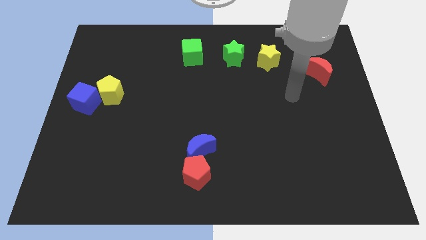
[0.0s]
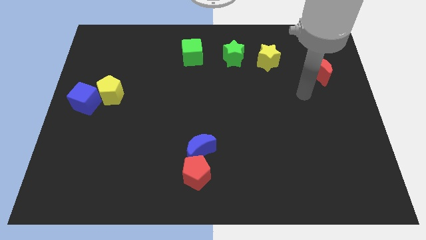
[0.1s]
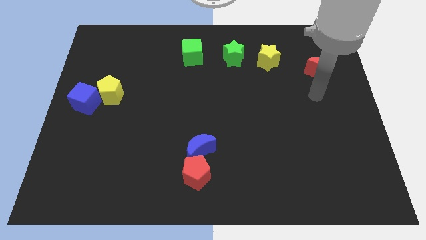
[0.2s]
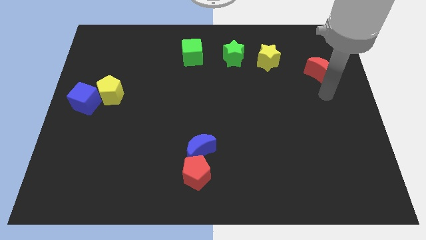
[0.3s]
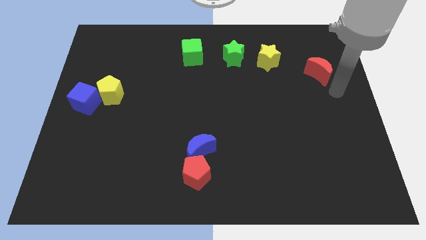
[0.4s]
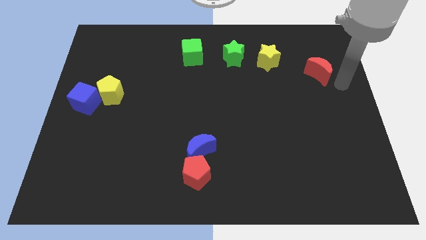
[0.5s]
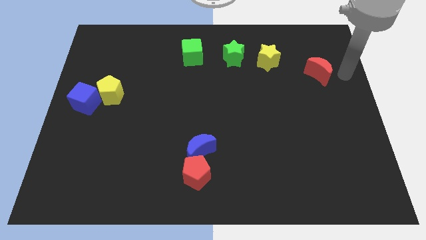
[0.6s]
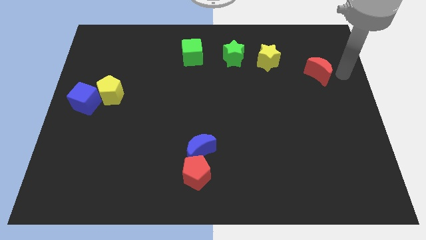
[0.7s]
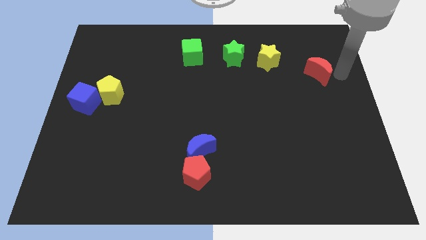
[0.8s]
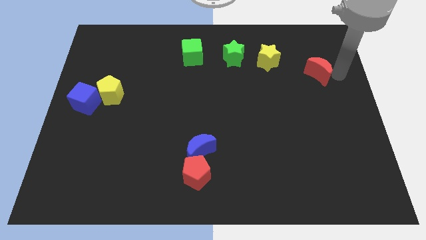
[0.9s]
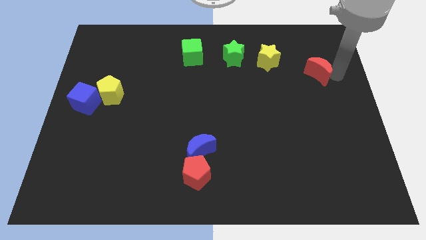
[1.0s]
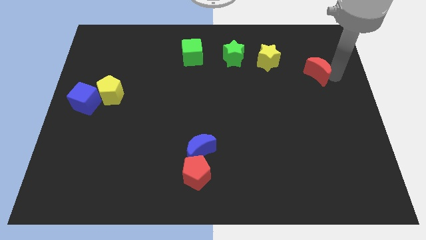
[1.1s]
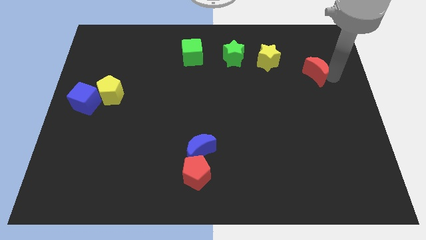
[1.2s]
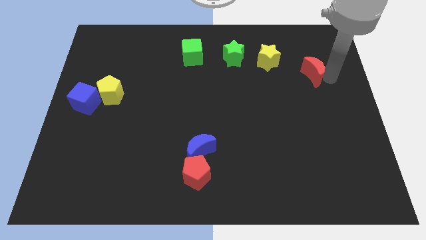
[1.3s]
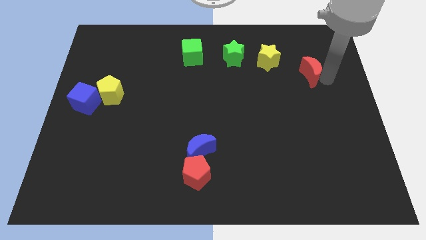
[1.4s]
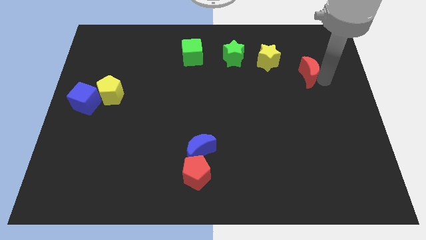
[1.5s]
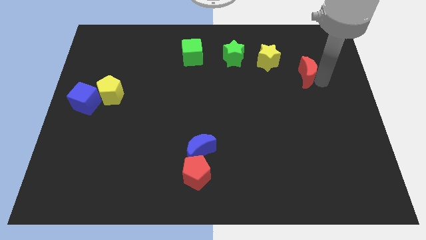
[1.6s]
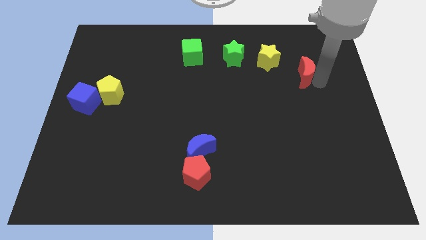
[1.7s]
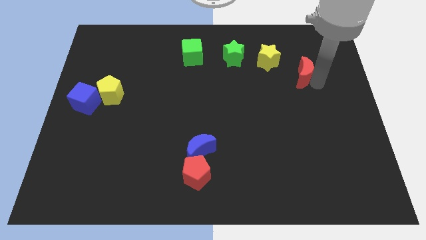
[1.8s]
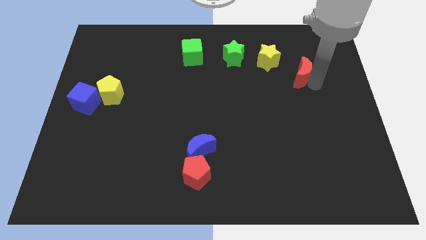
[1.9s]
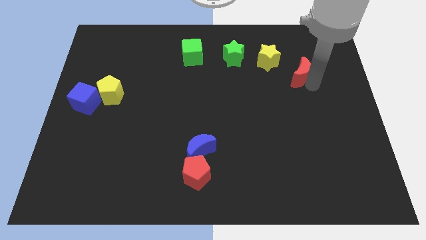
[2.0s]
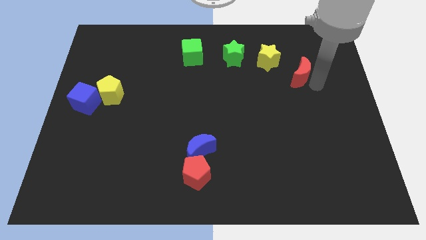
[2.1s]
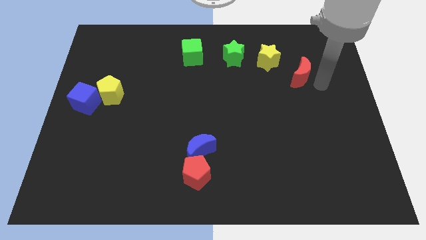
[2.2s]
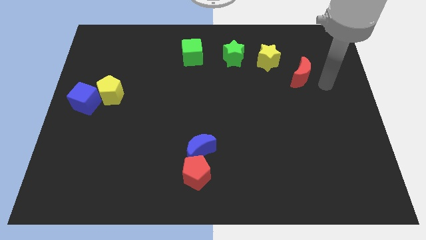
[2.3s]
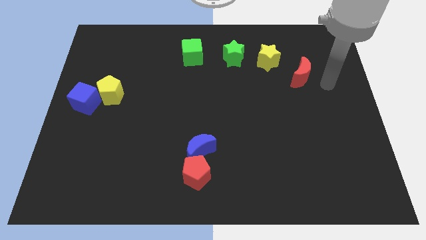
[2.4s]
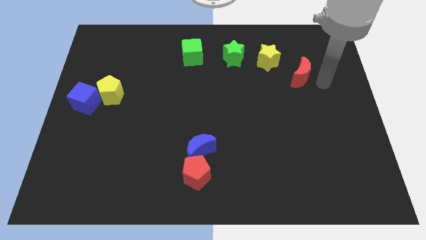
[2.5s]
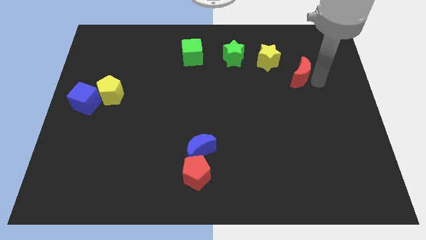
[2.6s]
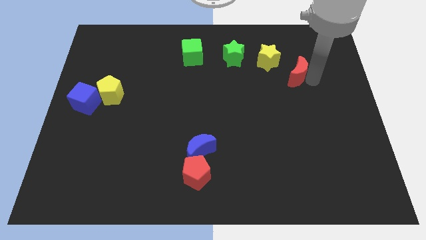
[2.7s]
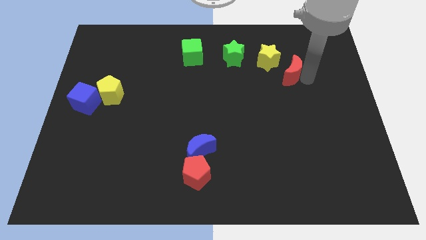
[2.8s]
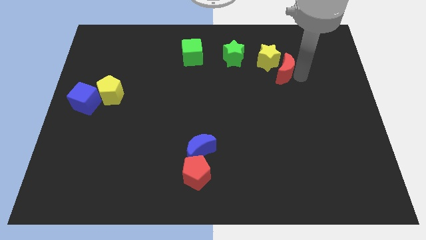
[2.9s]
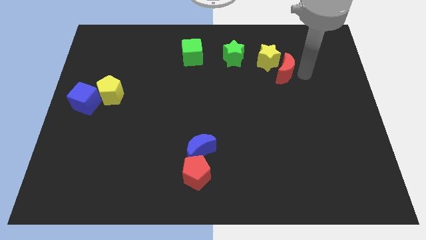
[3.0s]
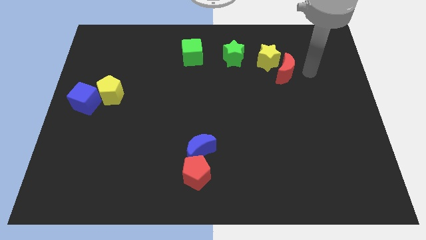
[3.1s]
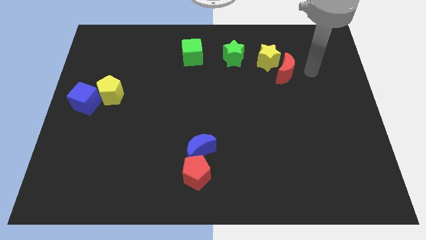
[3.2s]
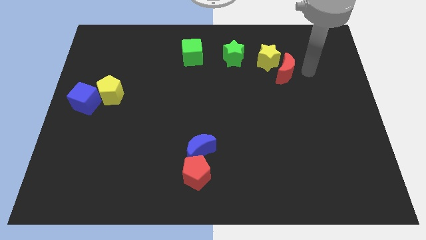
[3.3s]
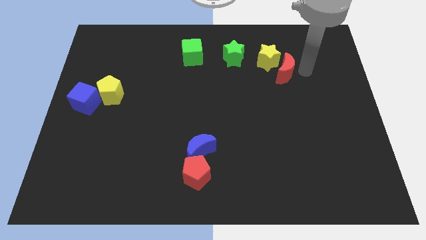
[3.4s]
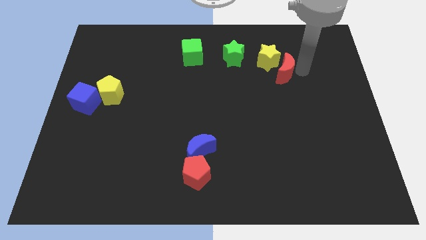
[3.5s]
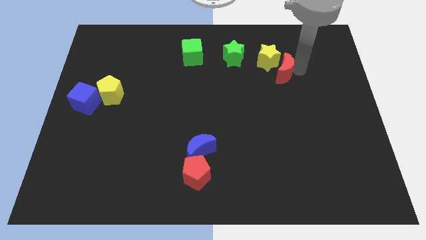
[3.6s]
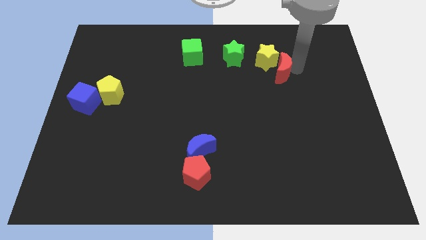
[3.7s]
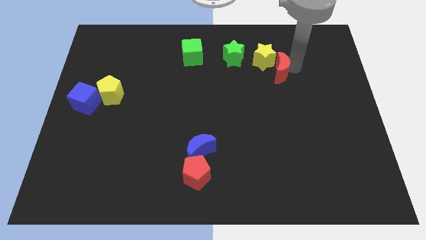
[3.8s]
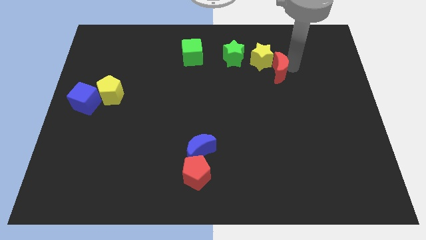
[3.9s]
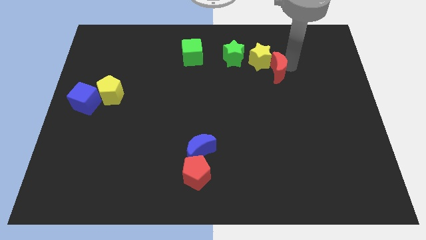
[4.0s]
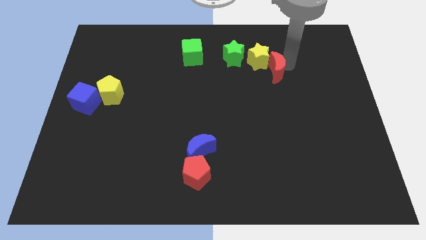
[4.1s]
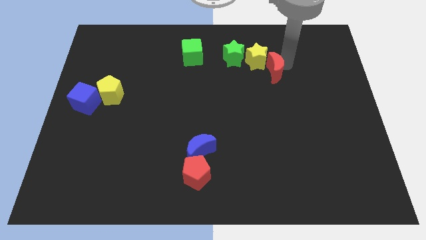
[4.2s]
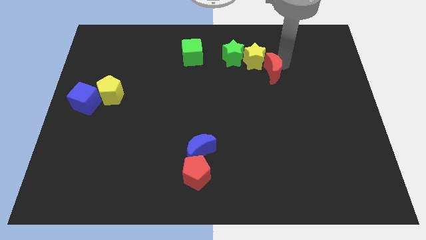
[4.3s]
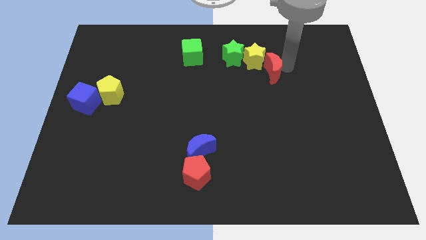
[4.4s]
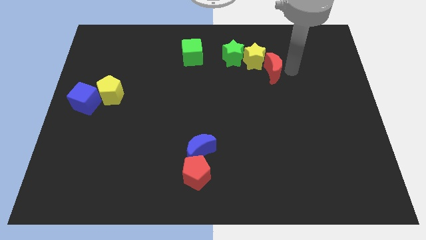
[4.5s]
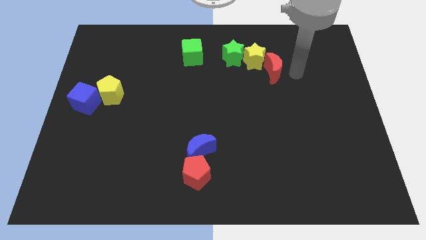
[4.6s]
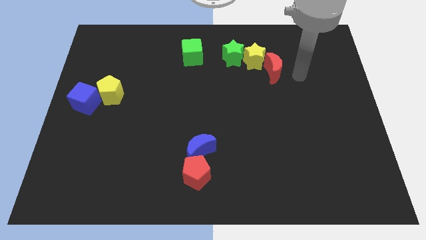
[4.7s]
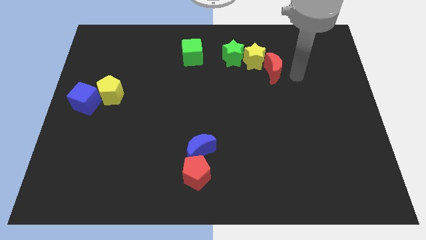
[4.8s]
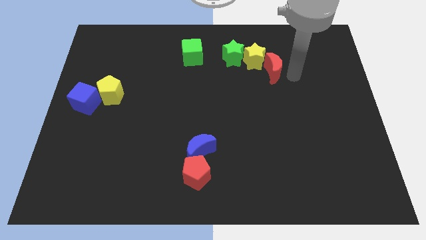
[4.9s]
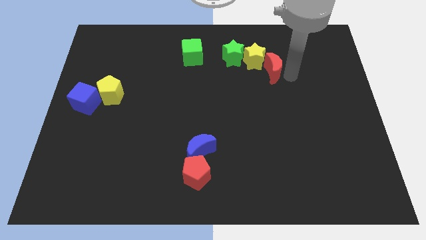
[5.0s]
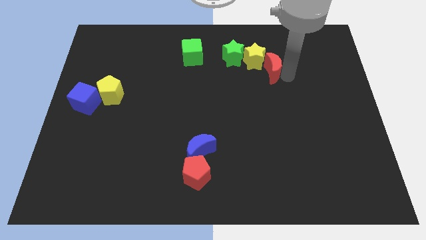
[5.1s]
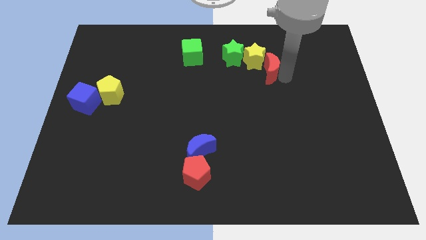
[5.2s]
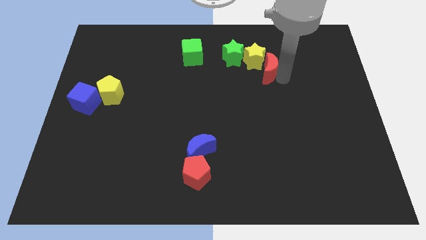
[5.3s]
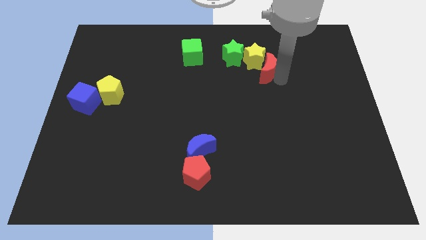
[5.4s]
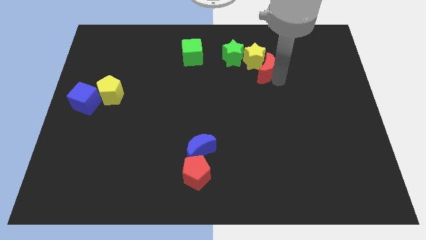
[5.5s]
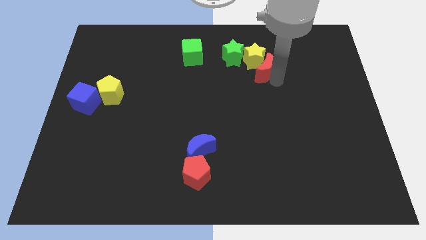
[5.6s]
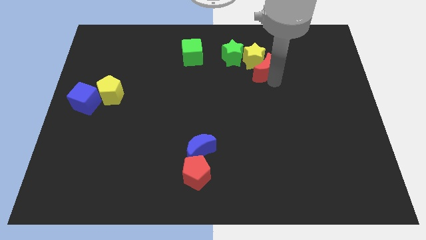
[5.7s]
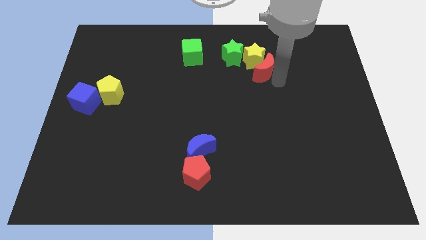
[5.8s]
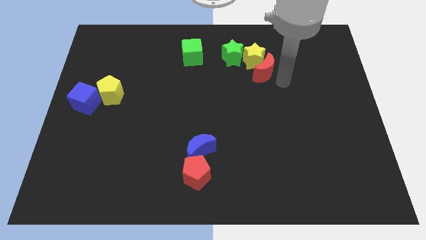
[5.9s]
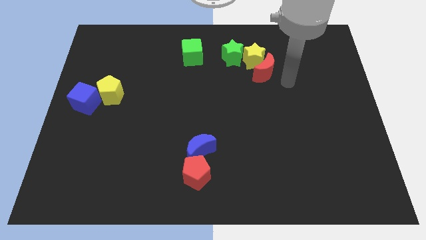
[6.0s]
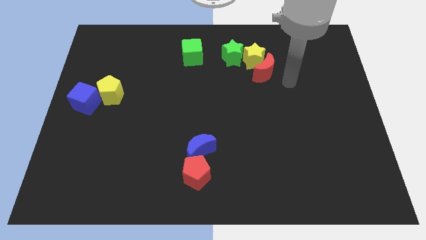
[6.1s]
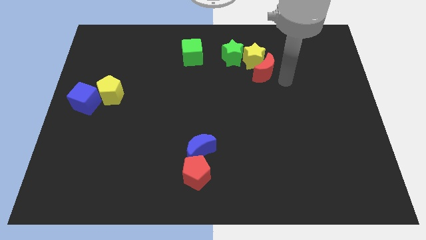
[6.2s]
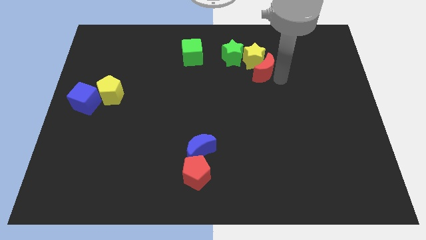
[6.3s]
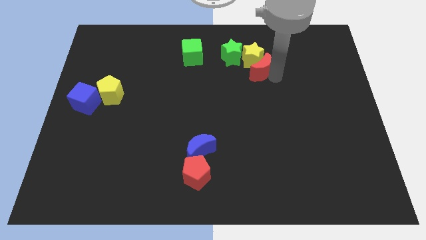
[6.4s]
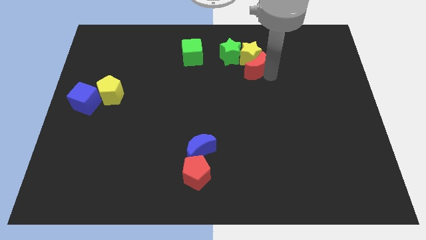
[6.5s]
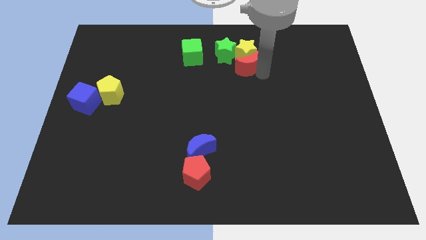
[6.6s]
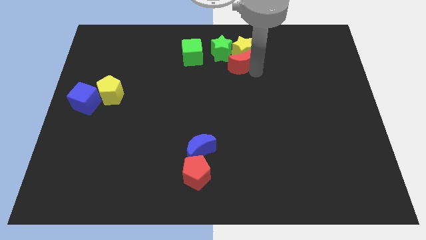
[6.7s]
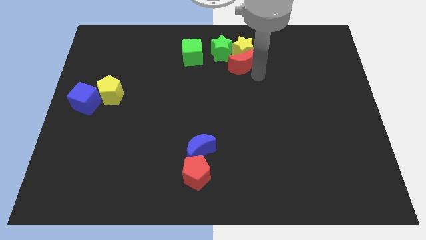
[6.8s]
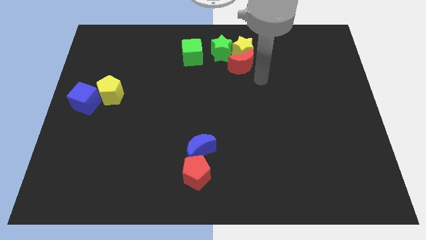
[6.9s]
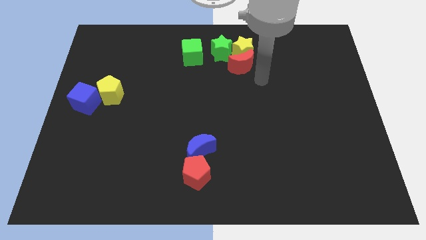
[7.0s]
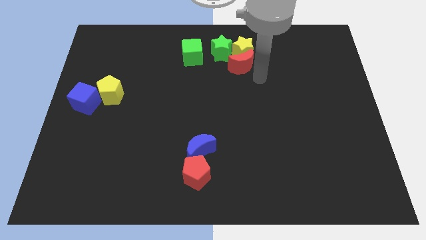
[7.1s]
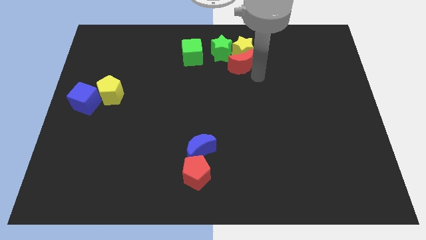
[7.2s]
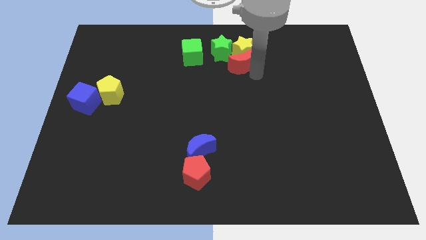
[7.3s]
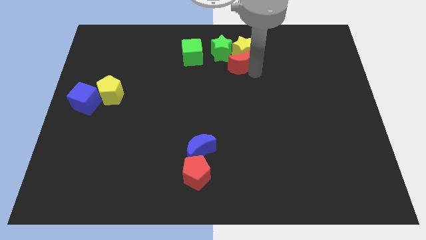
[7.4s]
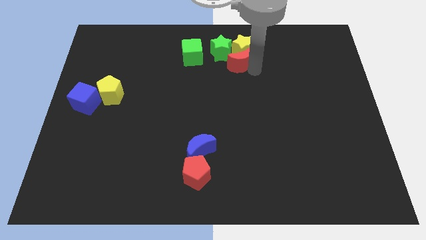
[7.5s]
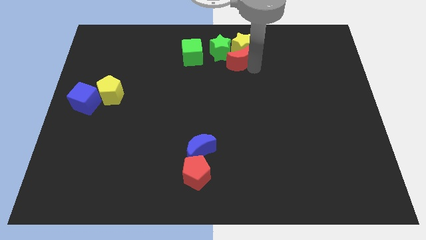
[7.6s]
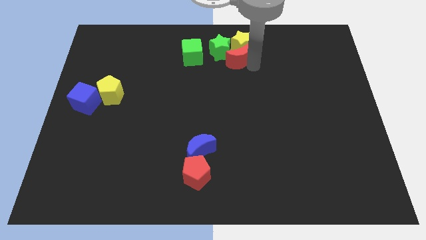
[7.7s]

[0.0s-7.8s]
slide the red moon close to the green star

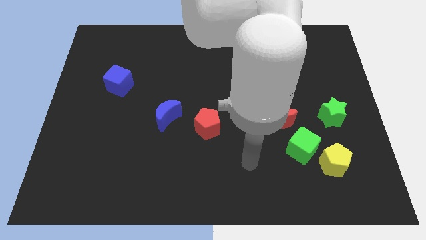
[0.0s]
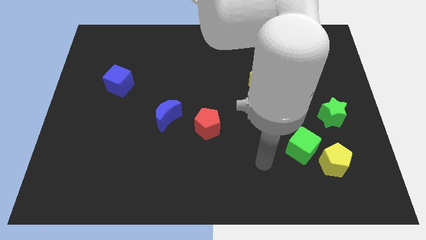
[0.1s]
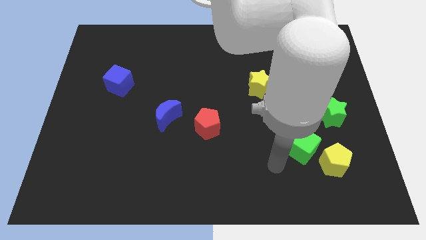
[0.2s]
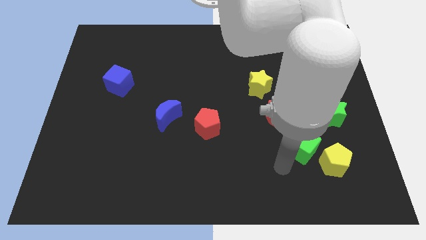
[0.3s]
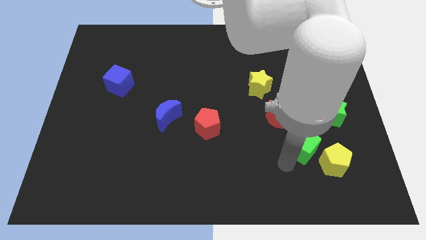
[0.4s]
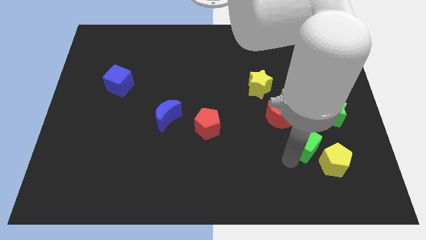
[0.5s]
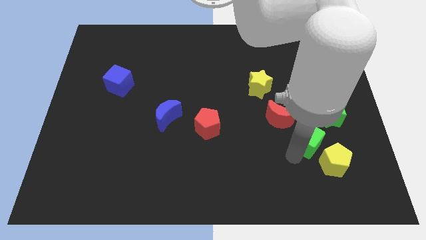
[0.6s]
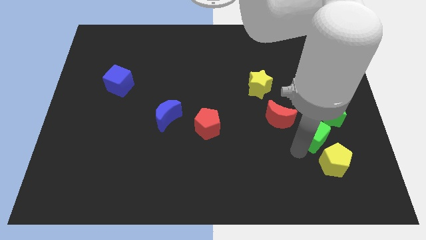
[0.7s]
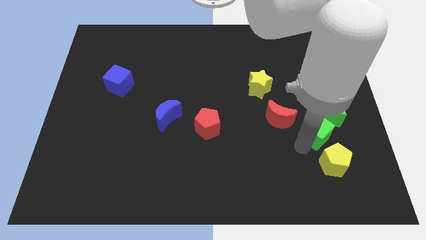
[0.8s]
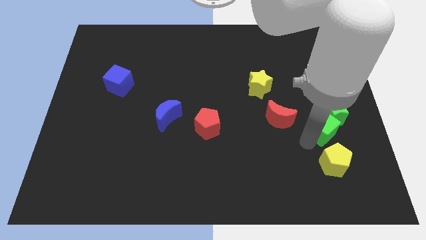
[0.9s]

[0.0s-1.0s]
push the green cube towards the green star
